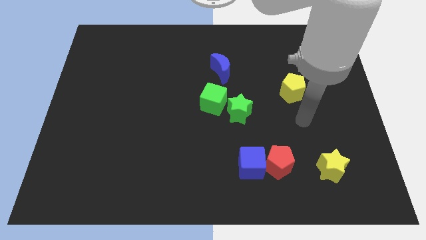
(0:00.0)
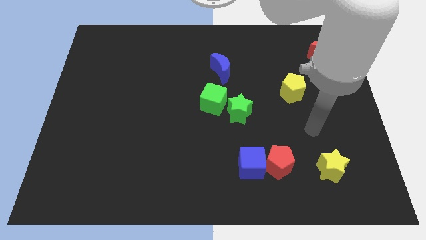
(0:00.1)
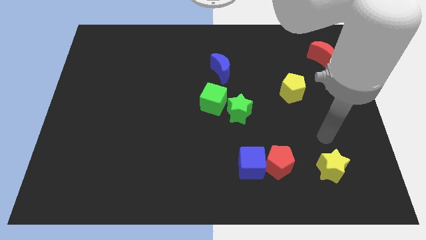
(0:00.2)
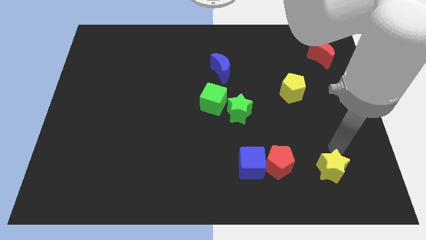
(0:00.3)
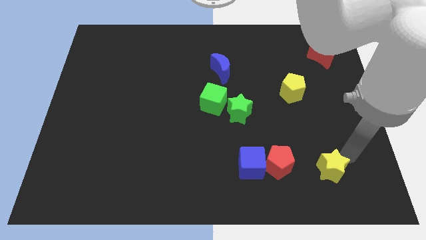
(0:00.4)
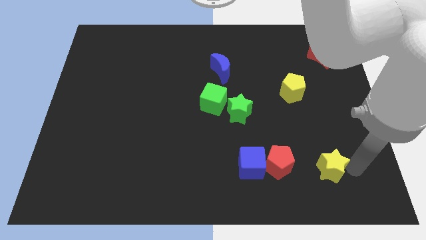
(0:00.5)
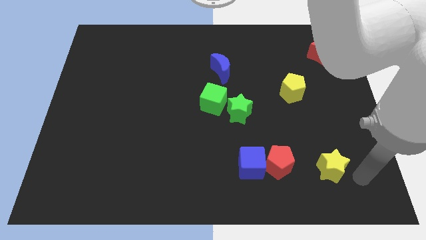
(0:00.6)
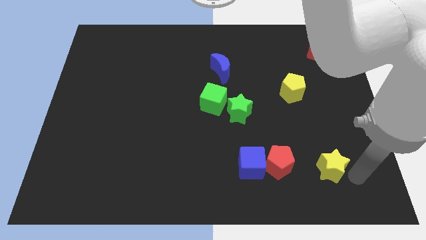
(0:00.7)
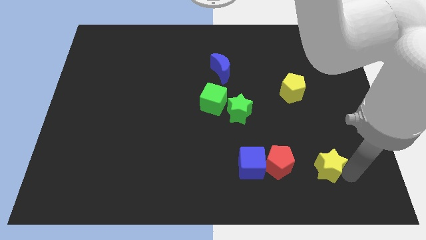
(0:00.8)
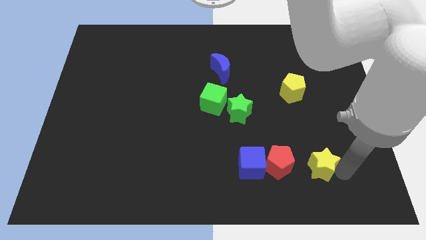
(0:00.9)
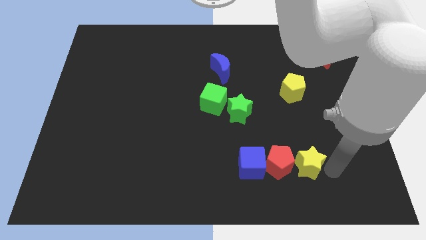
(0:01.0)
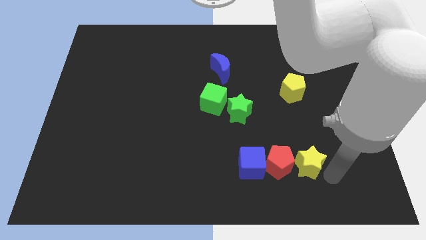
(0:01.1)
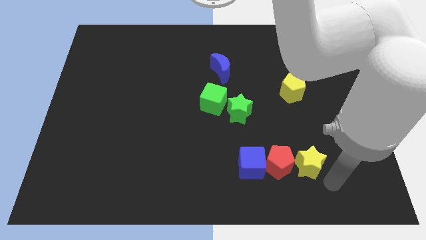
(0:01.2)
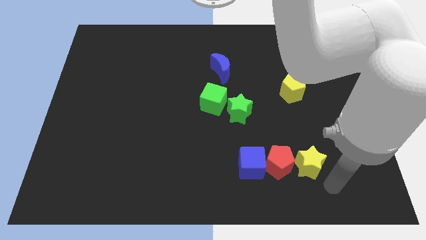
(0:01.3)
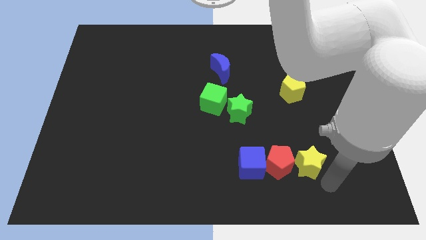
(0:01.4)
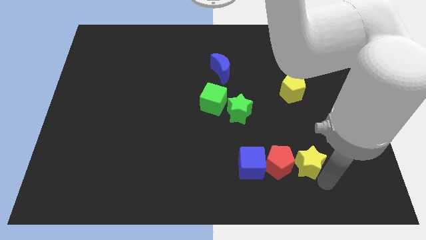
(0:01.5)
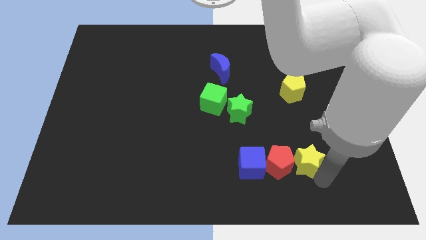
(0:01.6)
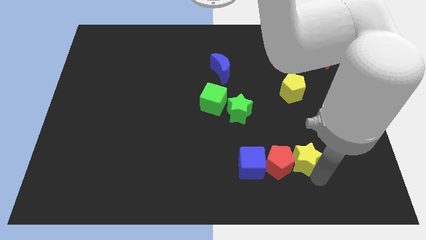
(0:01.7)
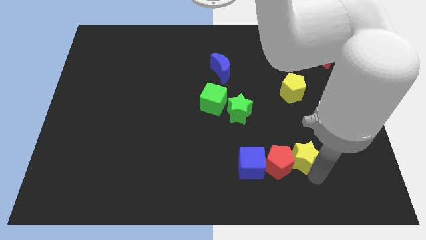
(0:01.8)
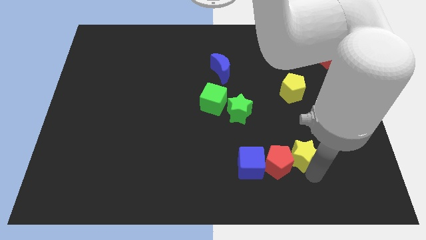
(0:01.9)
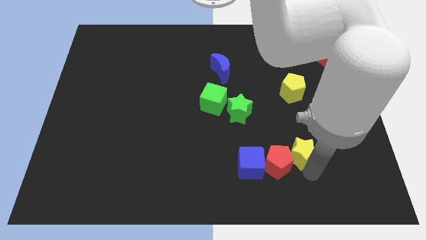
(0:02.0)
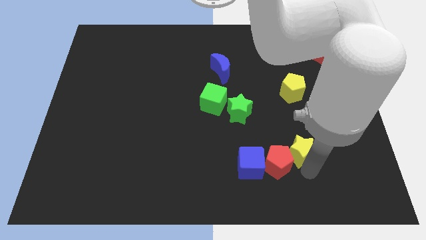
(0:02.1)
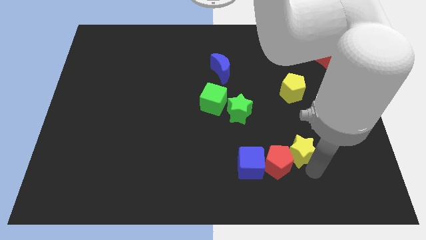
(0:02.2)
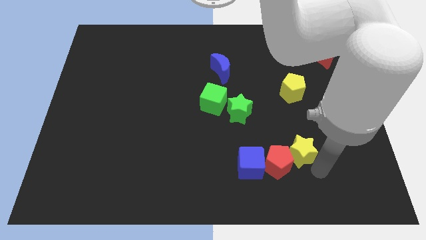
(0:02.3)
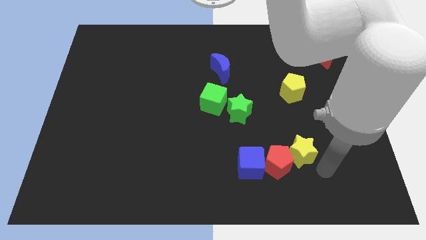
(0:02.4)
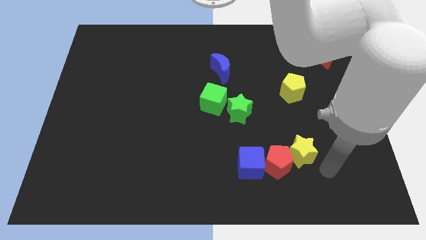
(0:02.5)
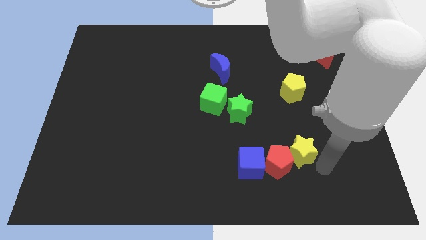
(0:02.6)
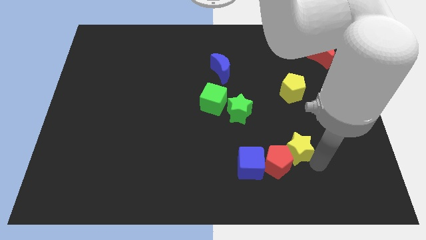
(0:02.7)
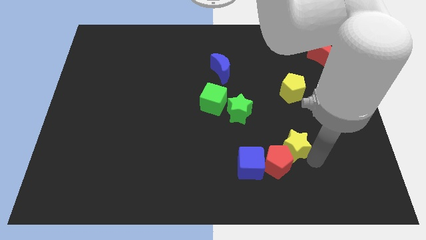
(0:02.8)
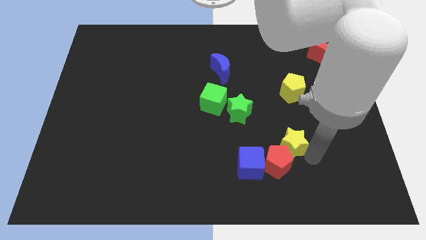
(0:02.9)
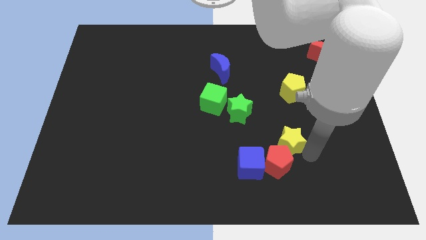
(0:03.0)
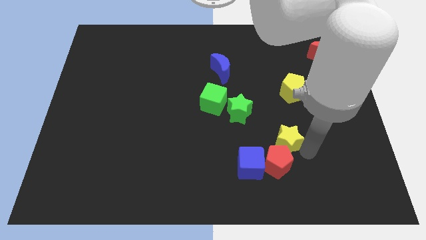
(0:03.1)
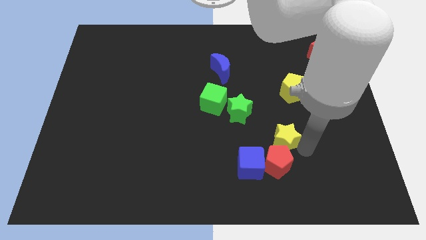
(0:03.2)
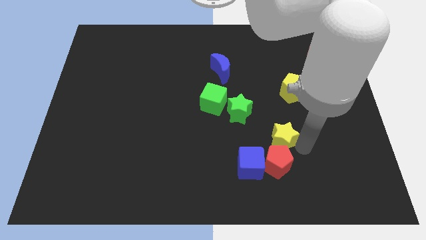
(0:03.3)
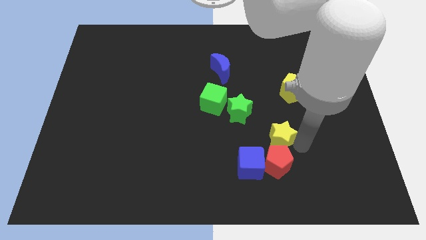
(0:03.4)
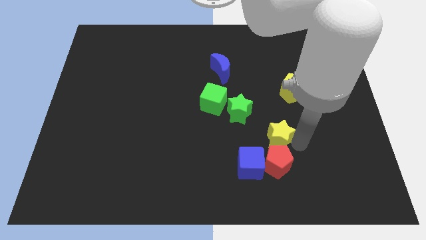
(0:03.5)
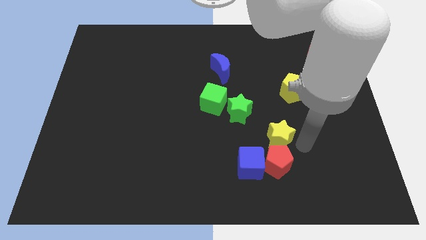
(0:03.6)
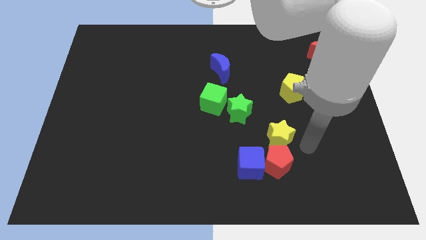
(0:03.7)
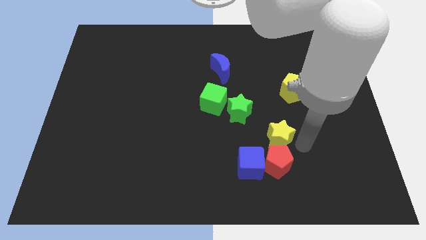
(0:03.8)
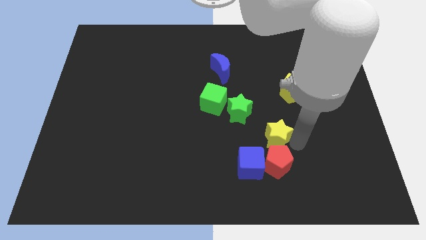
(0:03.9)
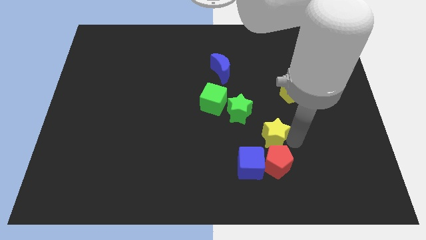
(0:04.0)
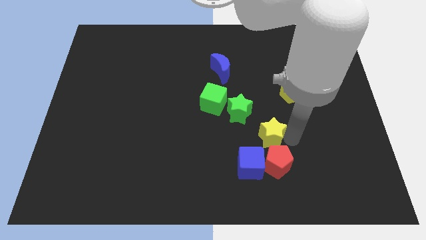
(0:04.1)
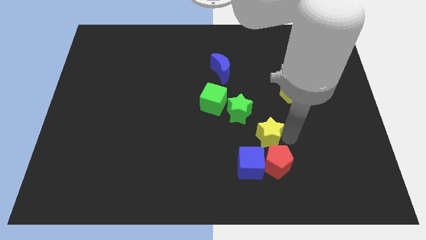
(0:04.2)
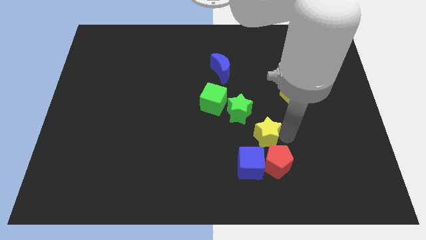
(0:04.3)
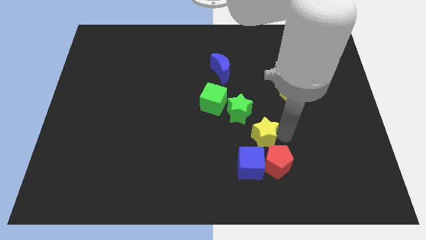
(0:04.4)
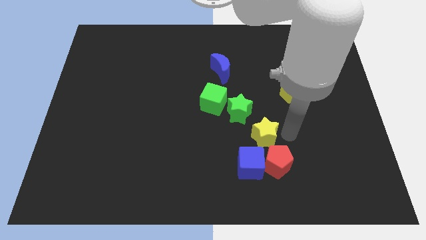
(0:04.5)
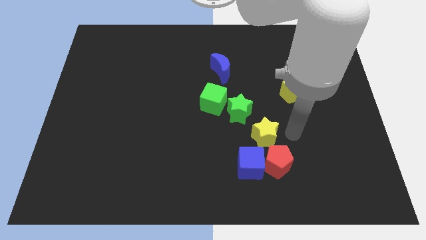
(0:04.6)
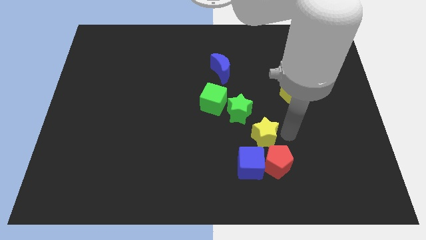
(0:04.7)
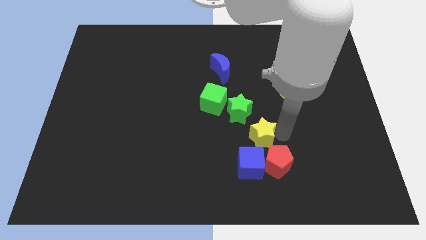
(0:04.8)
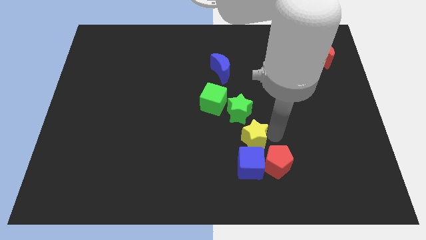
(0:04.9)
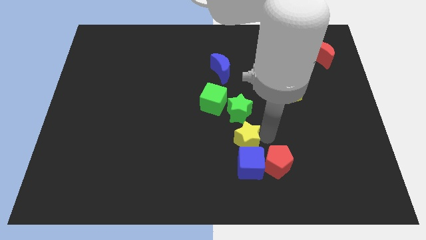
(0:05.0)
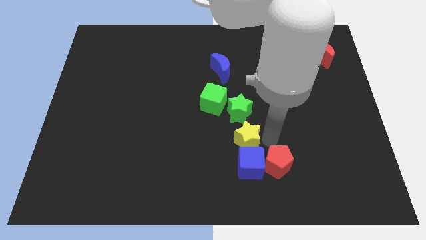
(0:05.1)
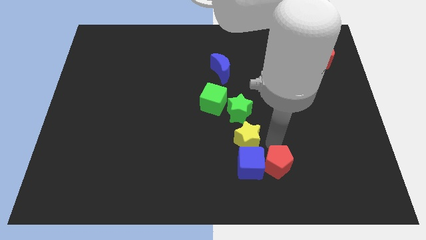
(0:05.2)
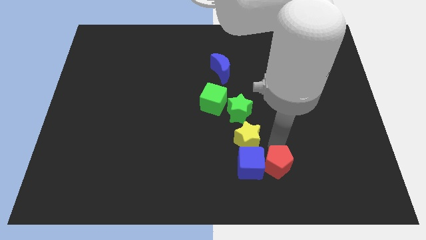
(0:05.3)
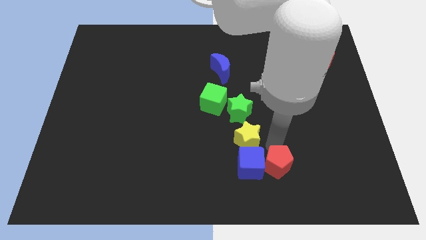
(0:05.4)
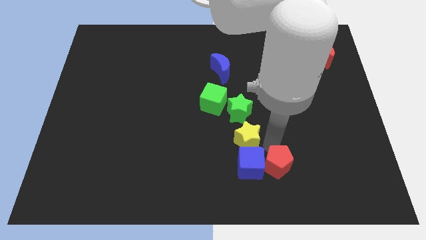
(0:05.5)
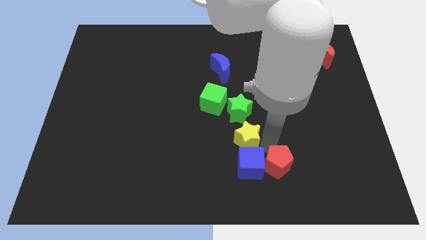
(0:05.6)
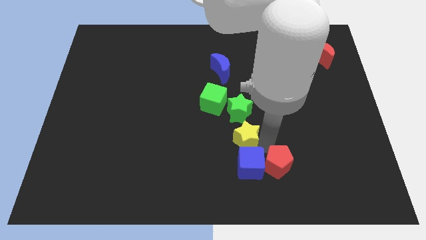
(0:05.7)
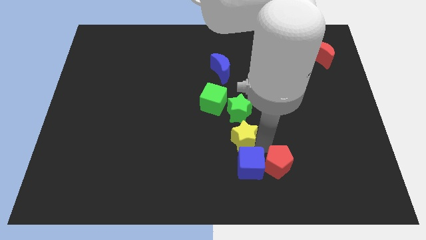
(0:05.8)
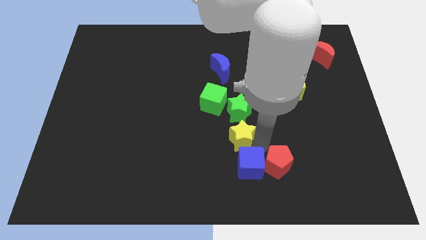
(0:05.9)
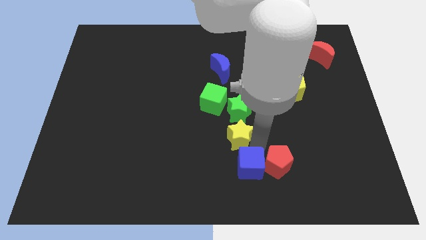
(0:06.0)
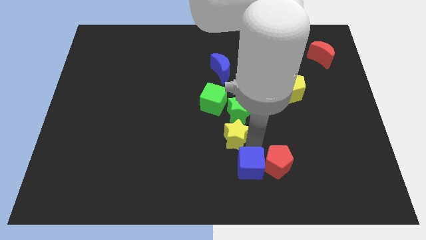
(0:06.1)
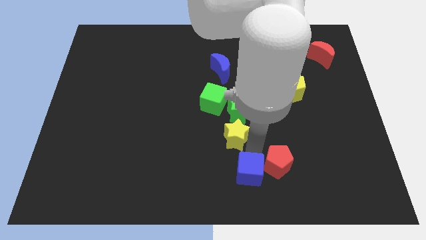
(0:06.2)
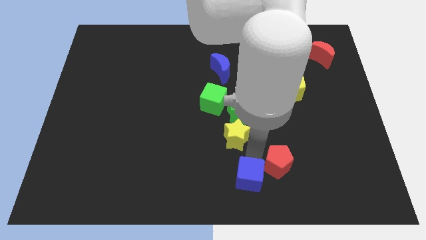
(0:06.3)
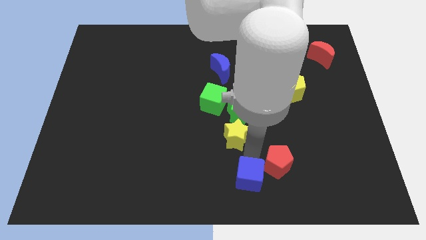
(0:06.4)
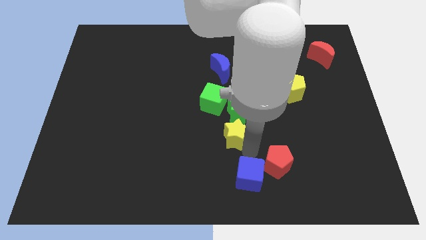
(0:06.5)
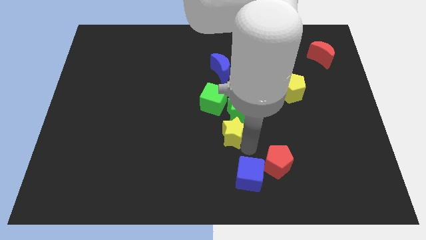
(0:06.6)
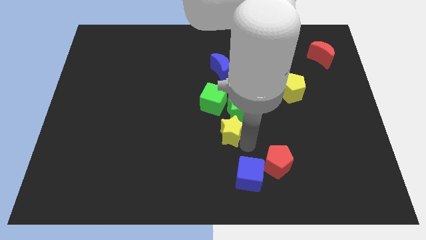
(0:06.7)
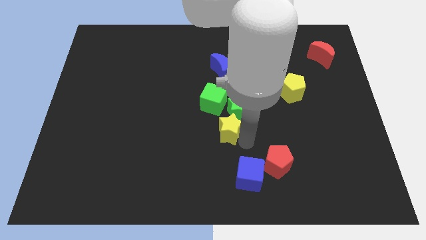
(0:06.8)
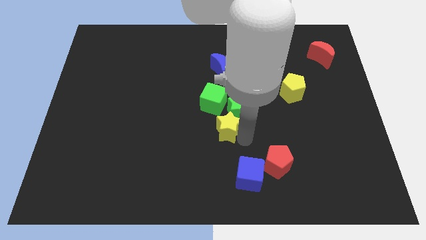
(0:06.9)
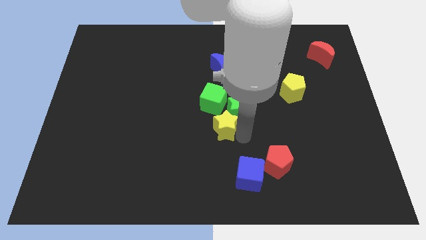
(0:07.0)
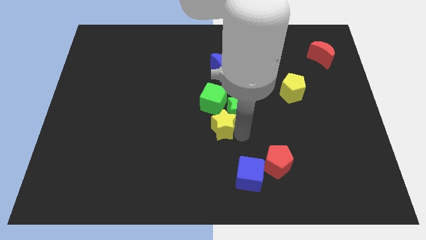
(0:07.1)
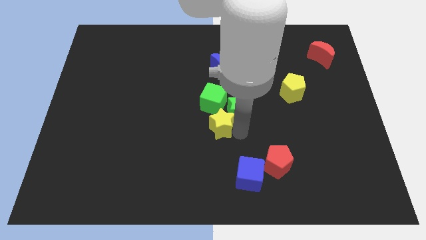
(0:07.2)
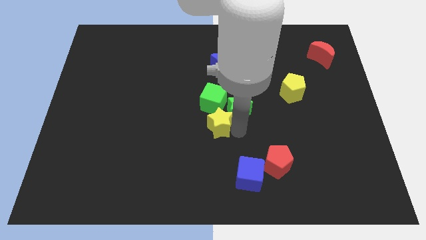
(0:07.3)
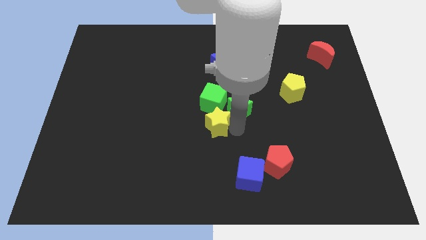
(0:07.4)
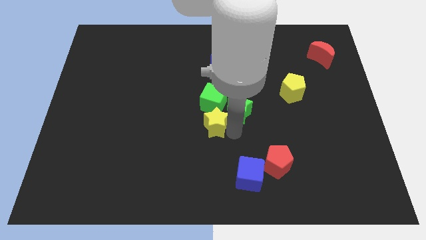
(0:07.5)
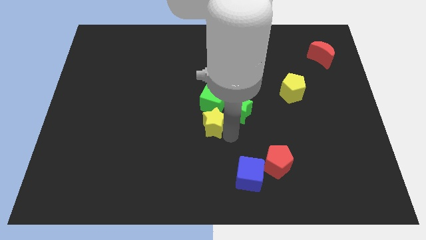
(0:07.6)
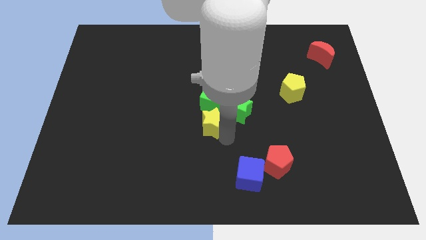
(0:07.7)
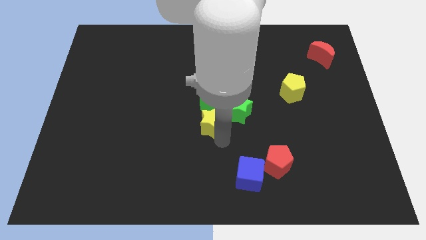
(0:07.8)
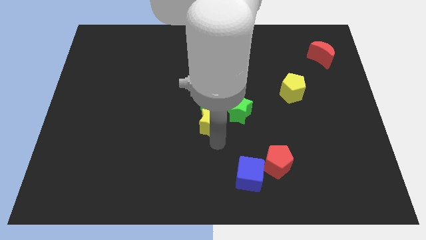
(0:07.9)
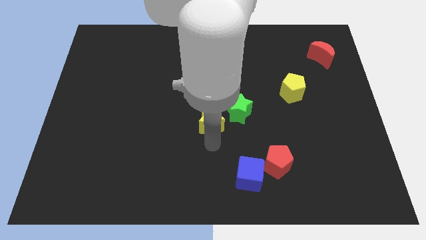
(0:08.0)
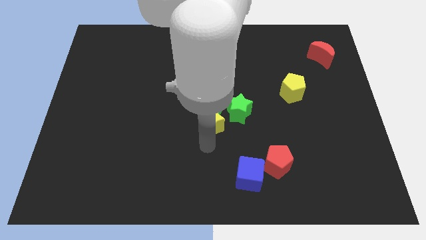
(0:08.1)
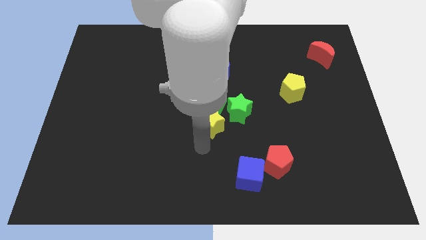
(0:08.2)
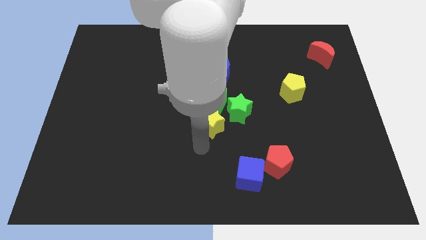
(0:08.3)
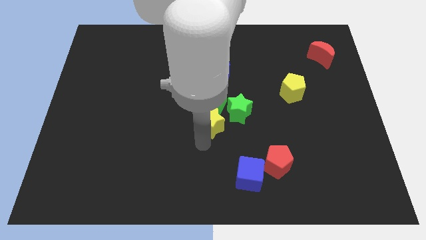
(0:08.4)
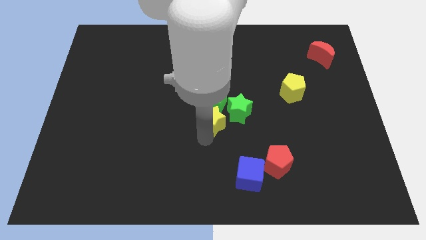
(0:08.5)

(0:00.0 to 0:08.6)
slide the yellow star to the green cube
